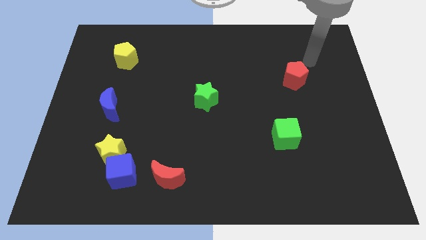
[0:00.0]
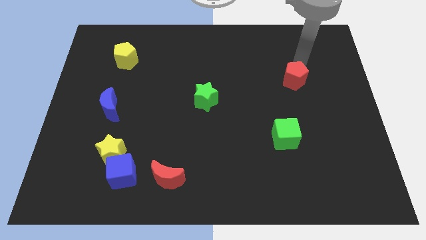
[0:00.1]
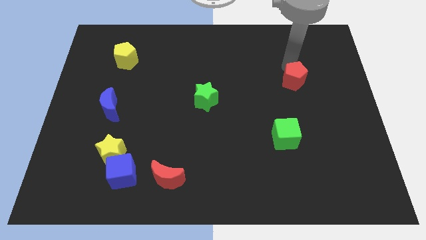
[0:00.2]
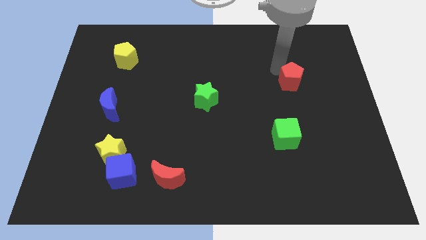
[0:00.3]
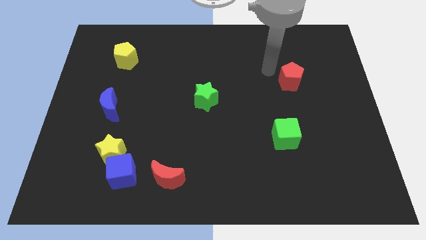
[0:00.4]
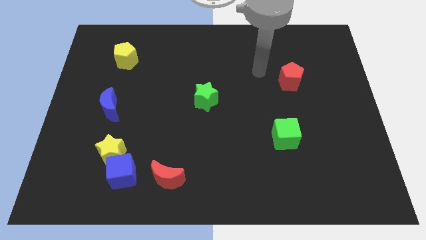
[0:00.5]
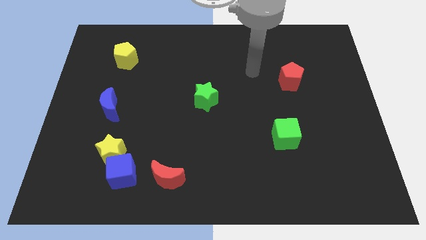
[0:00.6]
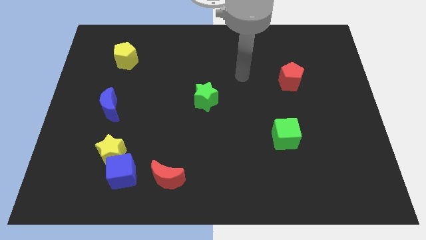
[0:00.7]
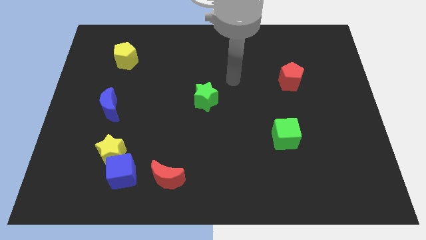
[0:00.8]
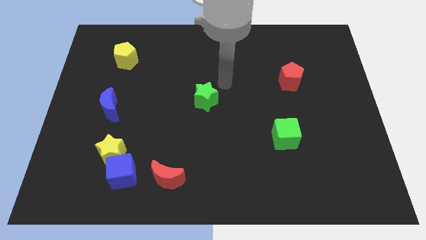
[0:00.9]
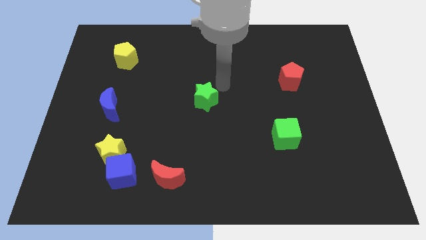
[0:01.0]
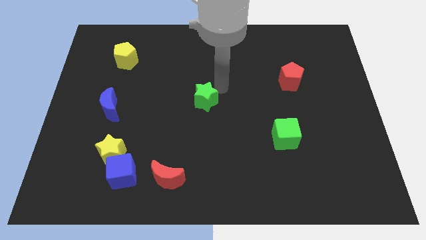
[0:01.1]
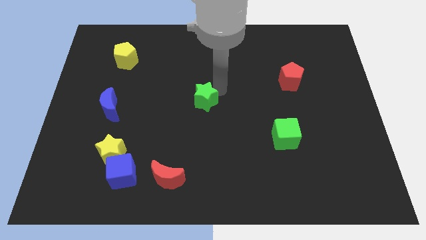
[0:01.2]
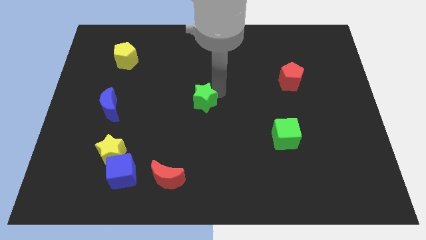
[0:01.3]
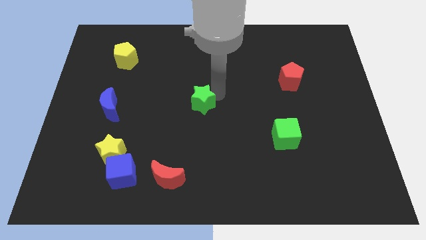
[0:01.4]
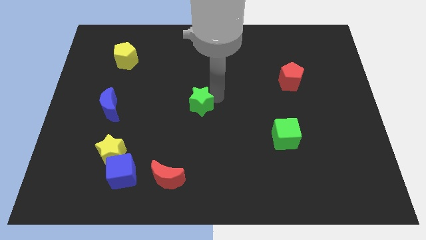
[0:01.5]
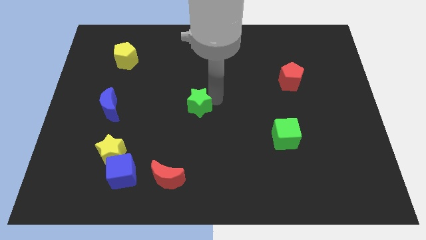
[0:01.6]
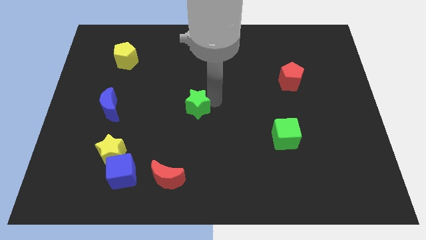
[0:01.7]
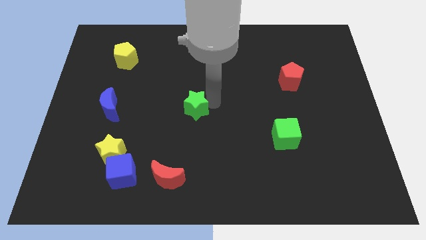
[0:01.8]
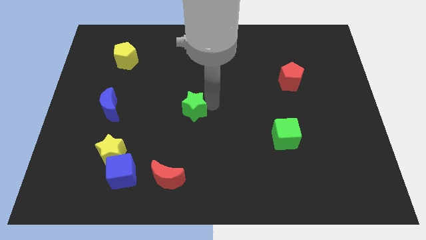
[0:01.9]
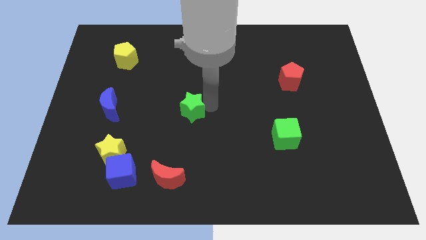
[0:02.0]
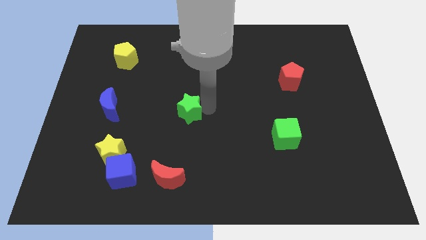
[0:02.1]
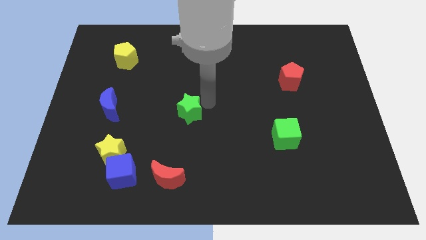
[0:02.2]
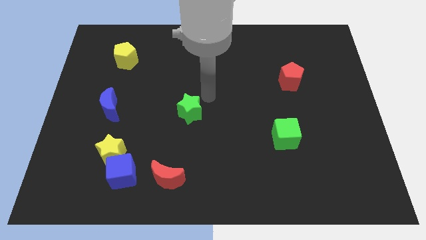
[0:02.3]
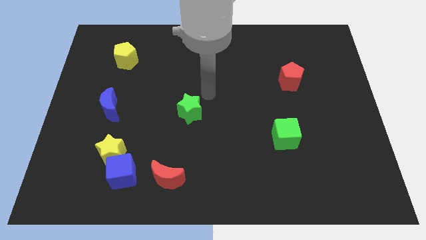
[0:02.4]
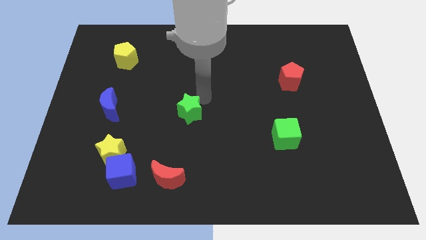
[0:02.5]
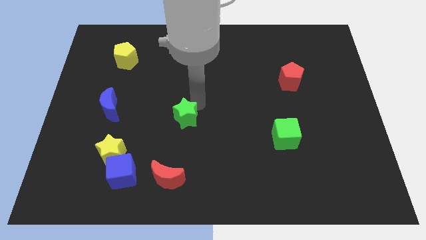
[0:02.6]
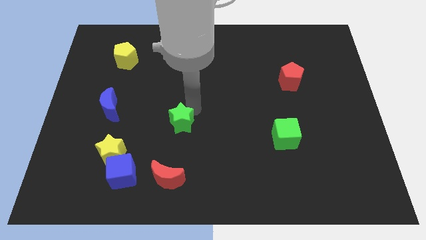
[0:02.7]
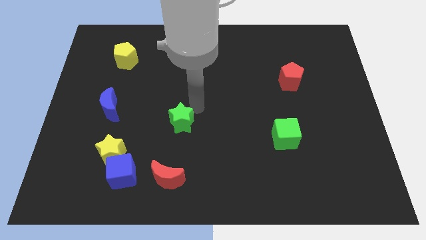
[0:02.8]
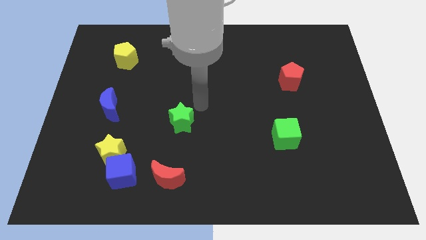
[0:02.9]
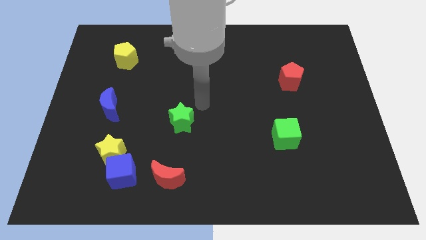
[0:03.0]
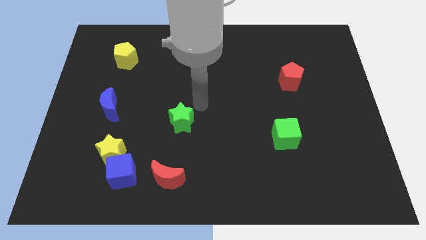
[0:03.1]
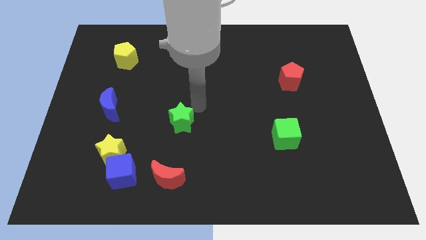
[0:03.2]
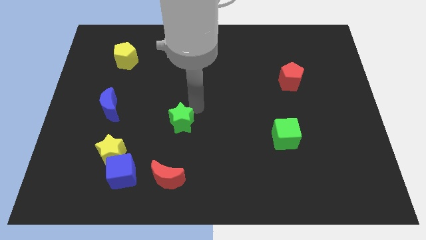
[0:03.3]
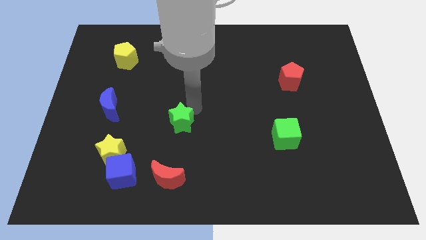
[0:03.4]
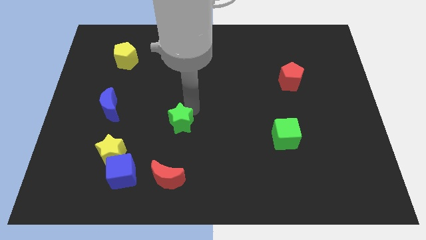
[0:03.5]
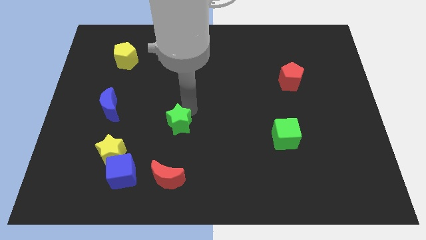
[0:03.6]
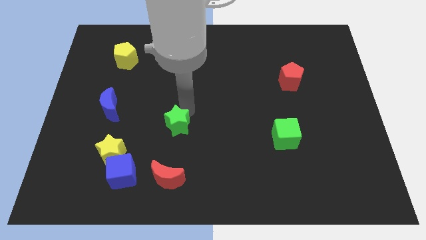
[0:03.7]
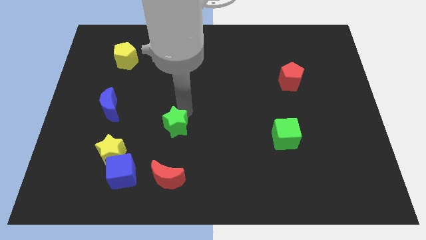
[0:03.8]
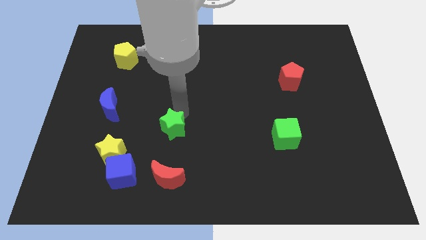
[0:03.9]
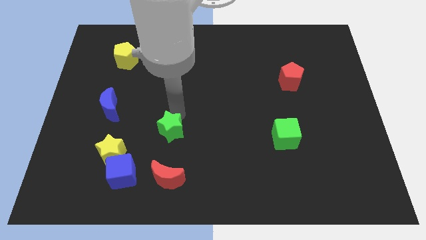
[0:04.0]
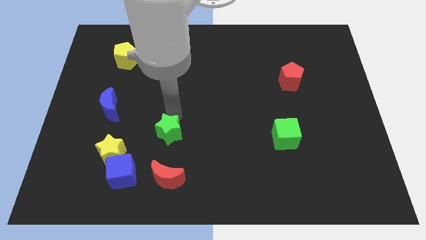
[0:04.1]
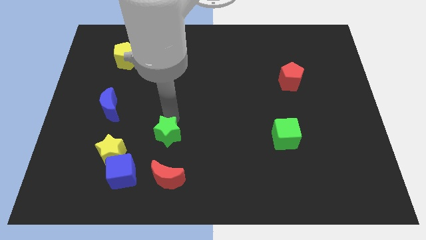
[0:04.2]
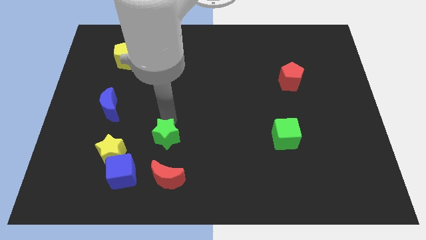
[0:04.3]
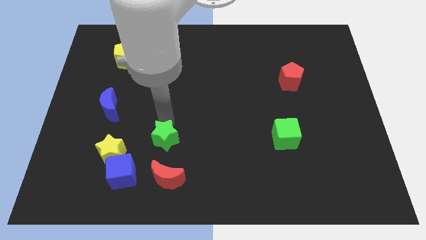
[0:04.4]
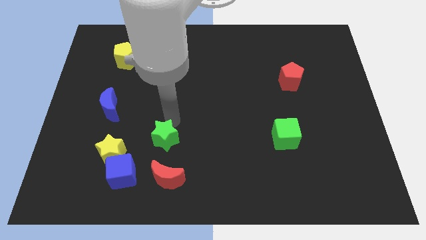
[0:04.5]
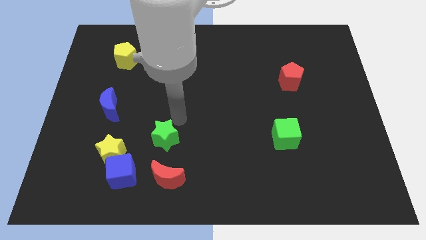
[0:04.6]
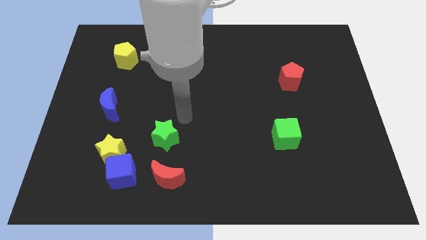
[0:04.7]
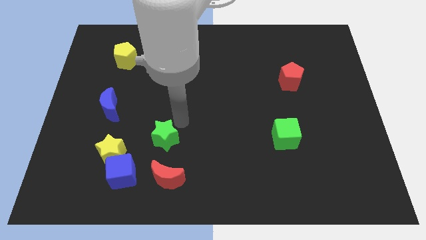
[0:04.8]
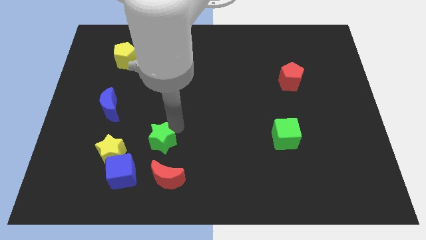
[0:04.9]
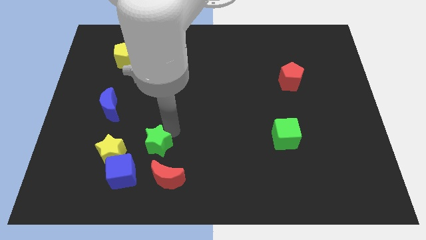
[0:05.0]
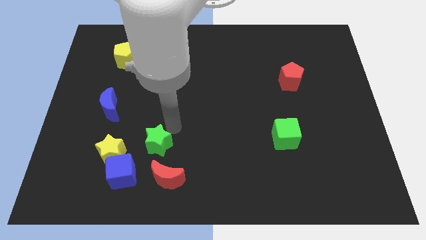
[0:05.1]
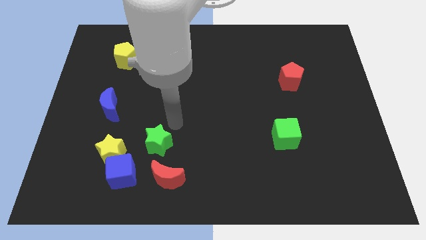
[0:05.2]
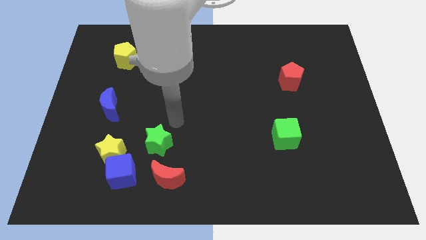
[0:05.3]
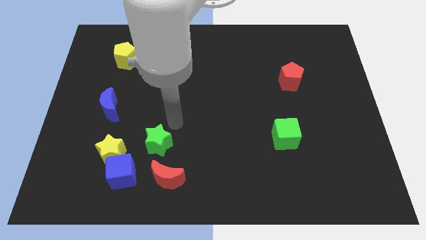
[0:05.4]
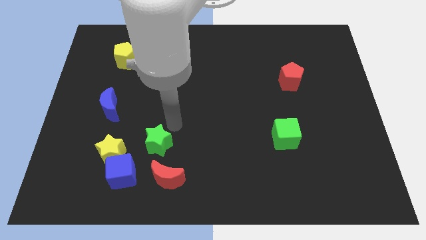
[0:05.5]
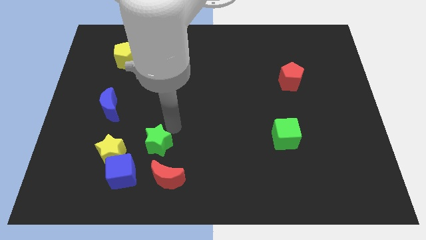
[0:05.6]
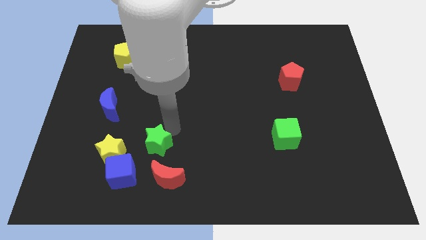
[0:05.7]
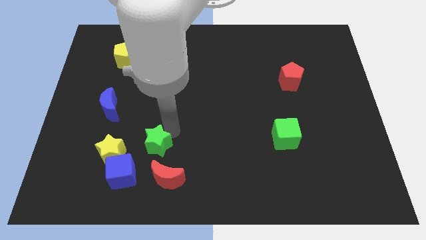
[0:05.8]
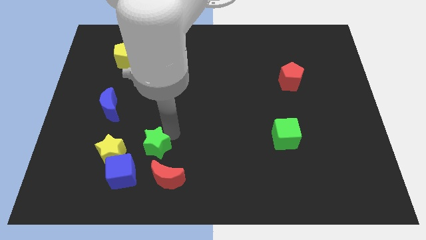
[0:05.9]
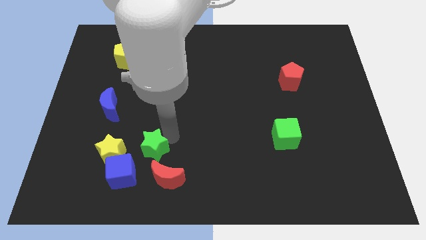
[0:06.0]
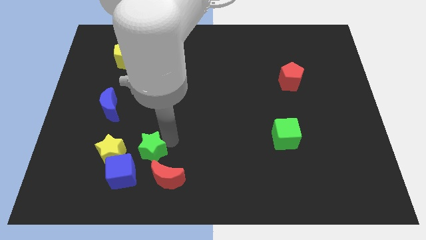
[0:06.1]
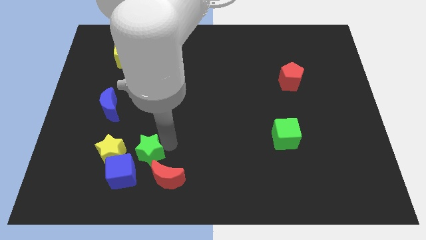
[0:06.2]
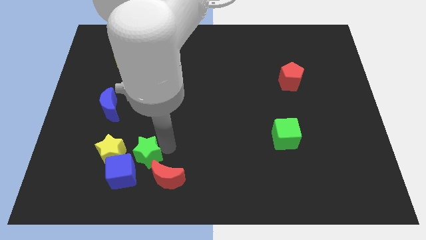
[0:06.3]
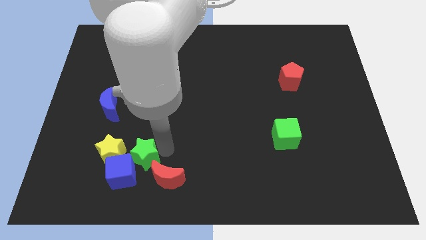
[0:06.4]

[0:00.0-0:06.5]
push the green star close to the blue cube

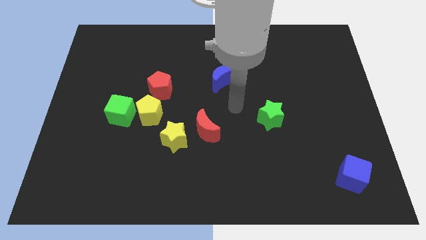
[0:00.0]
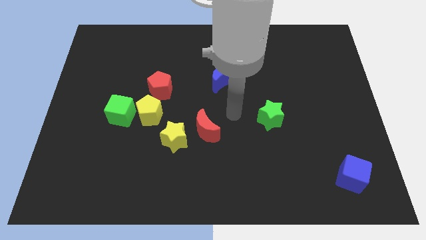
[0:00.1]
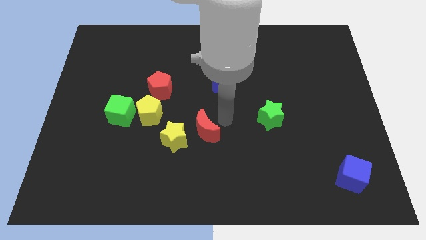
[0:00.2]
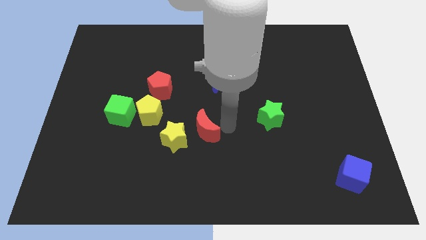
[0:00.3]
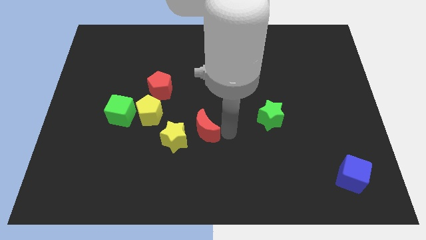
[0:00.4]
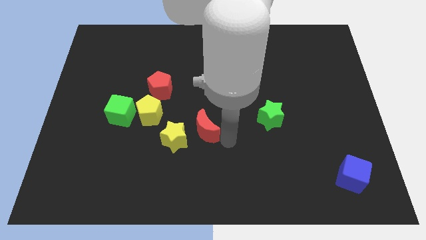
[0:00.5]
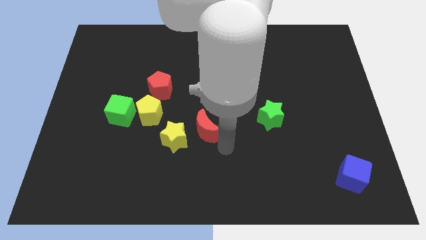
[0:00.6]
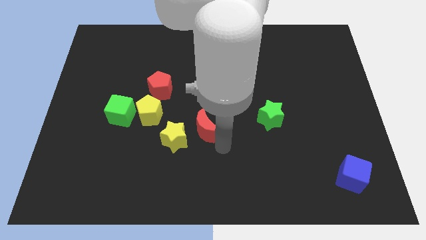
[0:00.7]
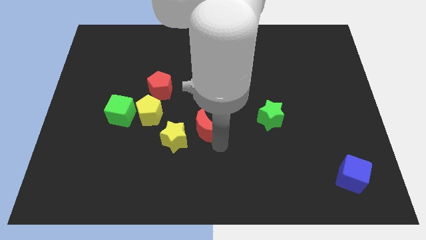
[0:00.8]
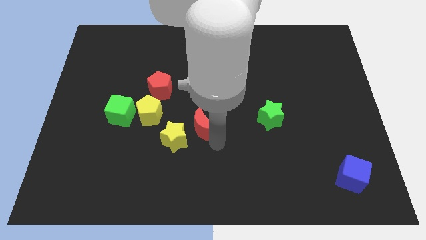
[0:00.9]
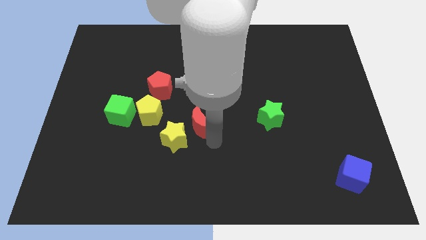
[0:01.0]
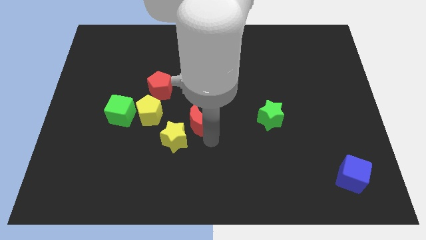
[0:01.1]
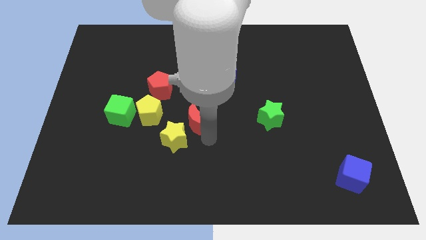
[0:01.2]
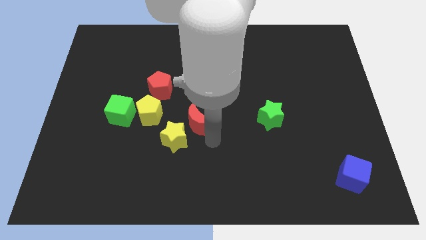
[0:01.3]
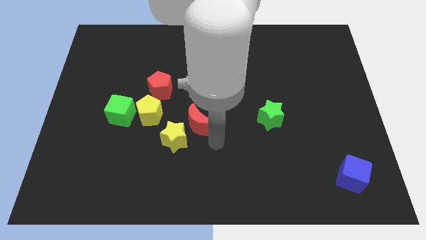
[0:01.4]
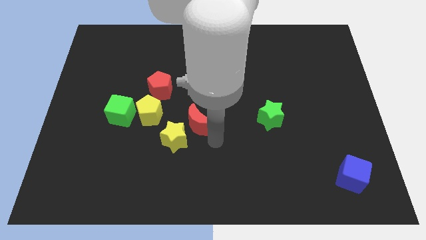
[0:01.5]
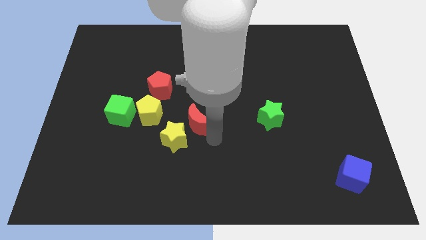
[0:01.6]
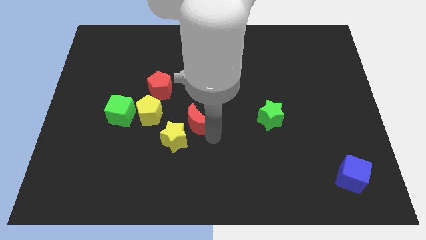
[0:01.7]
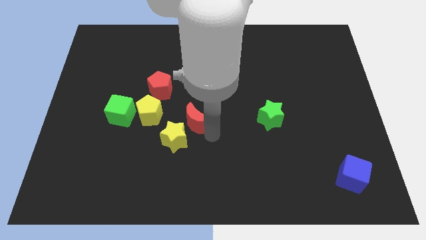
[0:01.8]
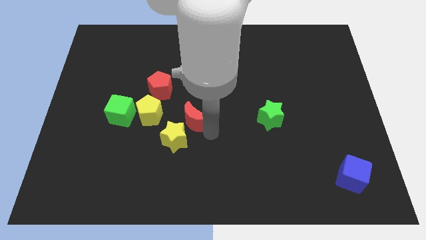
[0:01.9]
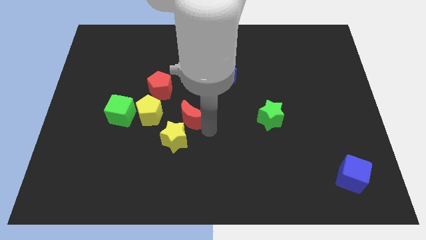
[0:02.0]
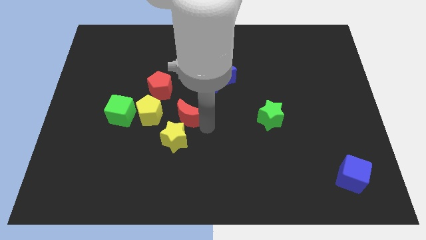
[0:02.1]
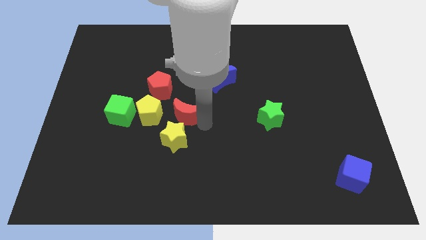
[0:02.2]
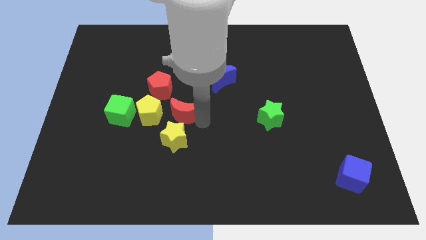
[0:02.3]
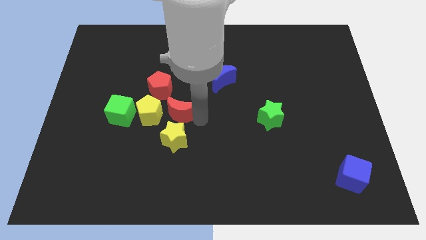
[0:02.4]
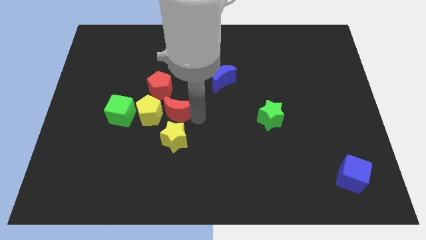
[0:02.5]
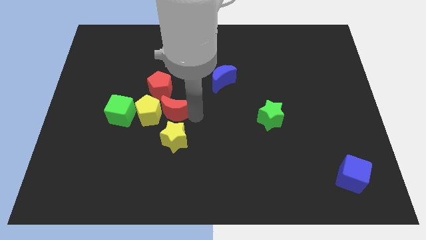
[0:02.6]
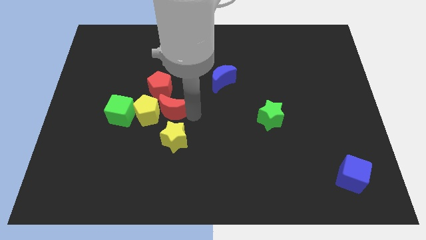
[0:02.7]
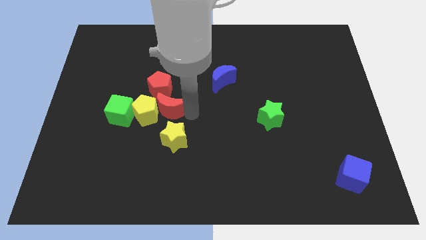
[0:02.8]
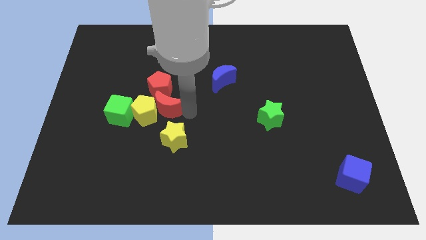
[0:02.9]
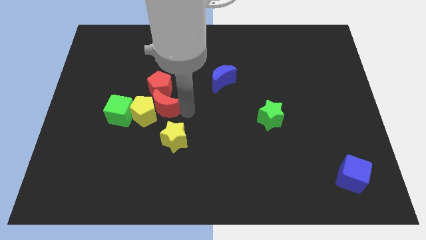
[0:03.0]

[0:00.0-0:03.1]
push the red moon close to the red pentagon
